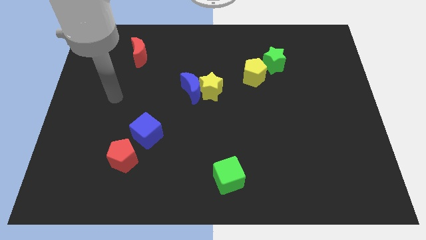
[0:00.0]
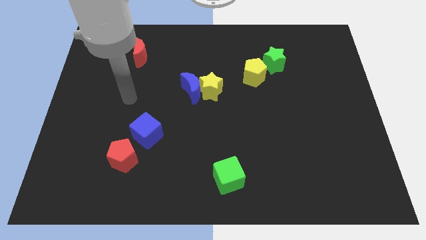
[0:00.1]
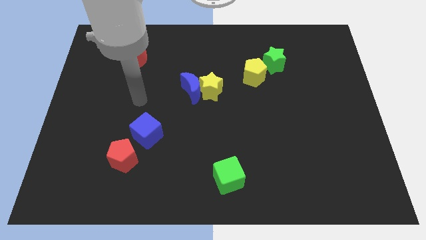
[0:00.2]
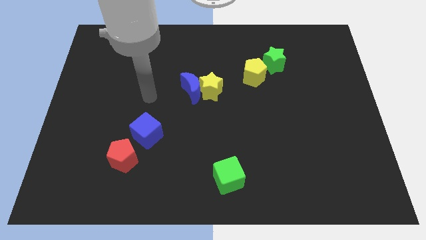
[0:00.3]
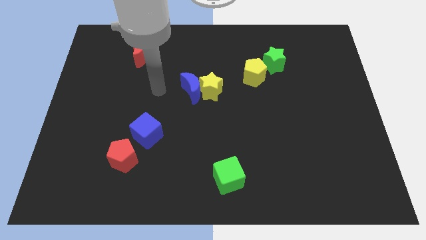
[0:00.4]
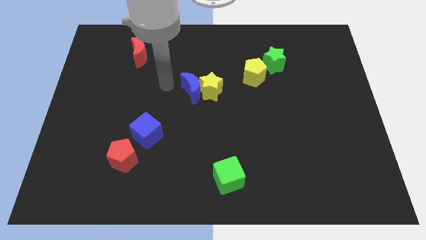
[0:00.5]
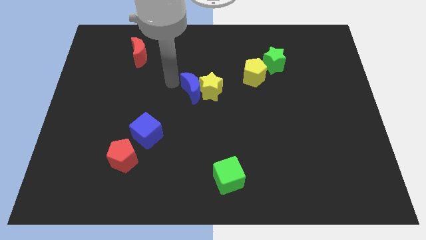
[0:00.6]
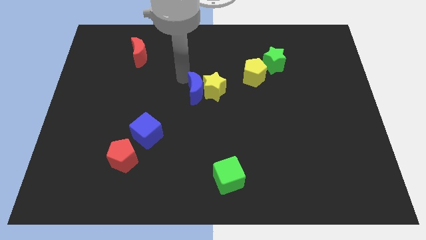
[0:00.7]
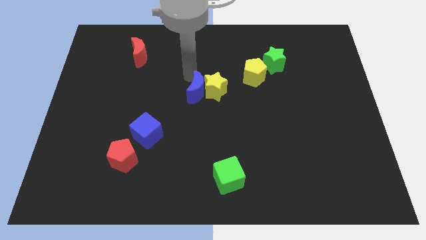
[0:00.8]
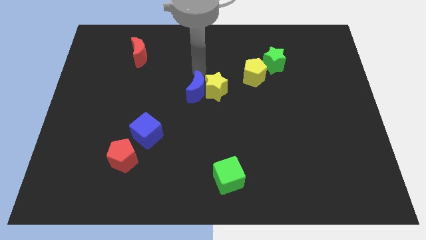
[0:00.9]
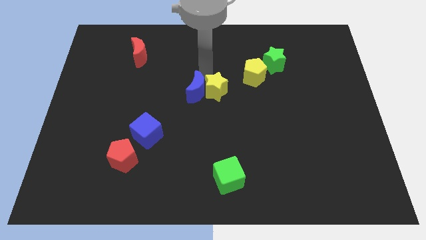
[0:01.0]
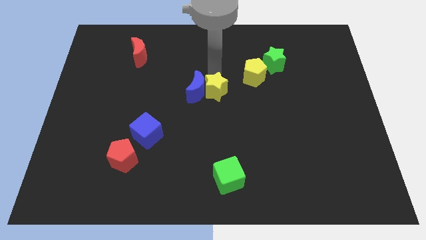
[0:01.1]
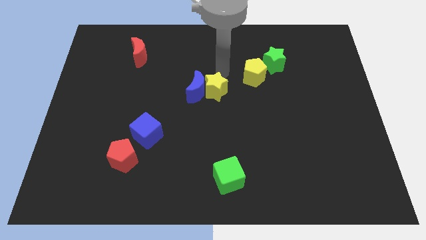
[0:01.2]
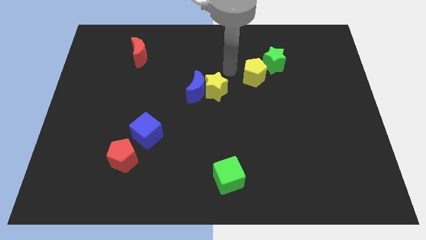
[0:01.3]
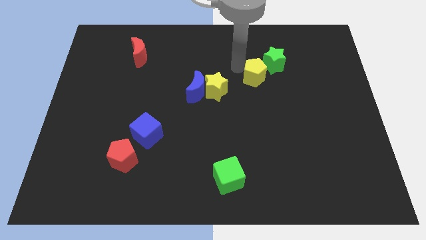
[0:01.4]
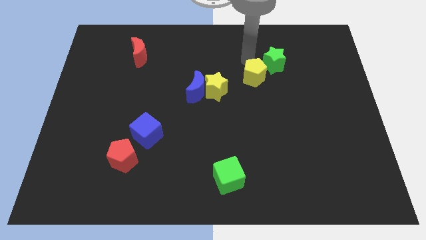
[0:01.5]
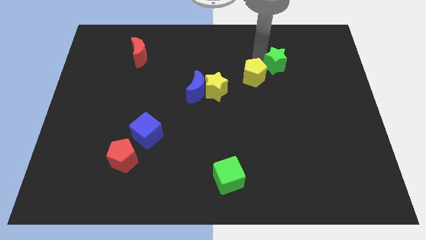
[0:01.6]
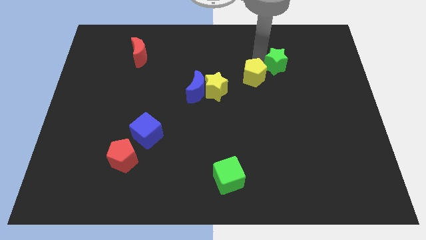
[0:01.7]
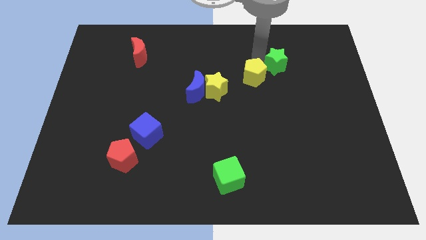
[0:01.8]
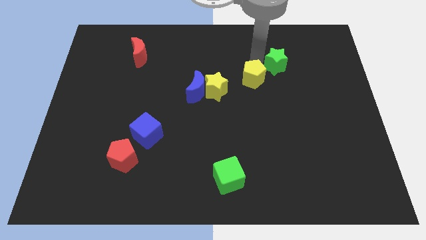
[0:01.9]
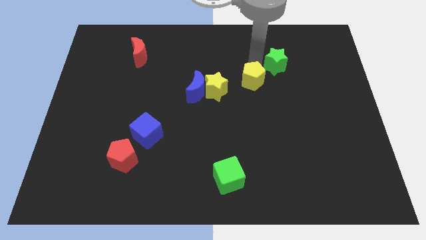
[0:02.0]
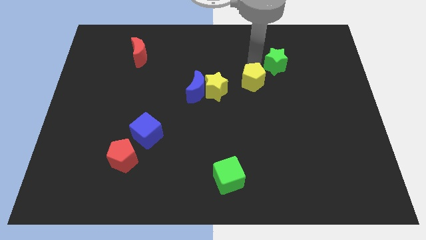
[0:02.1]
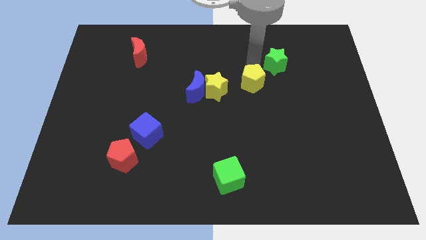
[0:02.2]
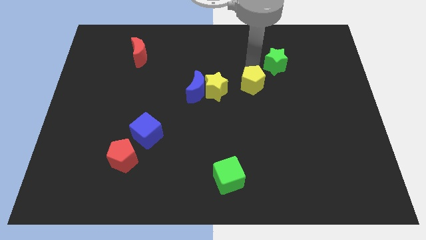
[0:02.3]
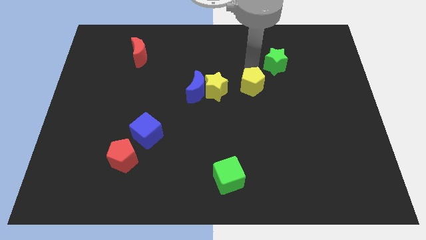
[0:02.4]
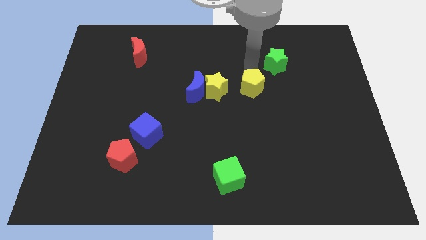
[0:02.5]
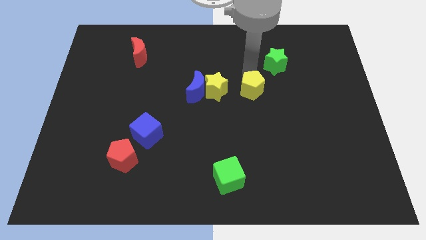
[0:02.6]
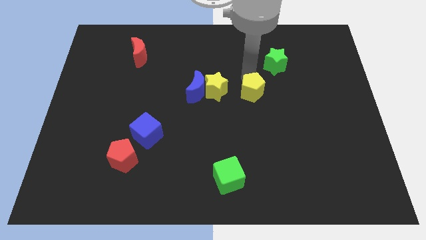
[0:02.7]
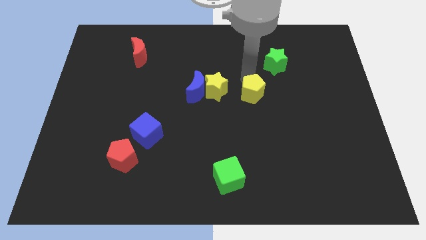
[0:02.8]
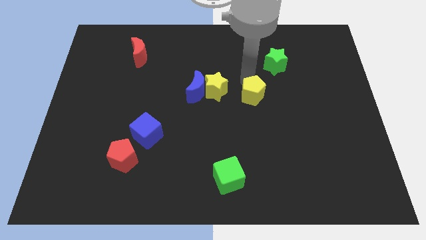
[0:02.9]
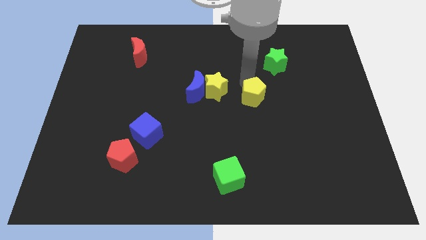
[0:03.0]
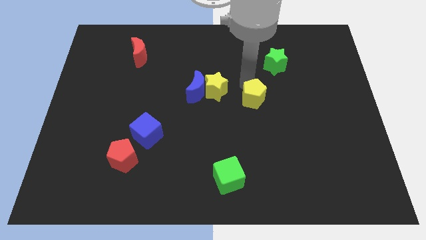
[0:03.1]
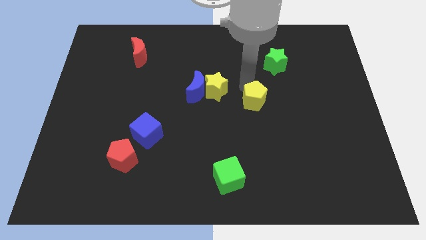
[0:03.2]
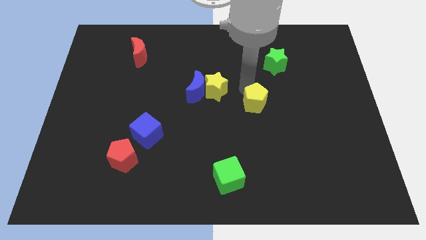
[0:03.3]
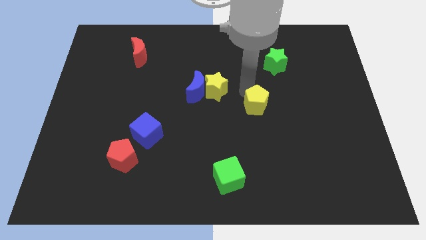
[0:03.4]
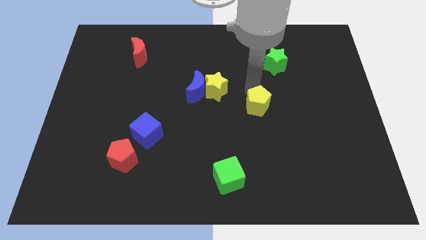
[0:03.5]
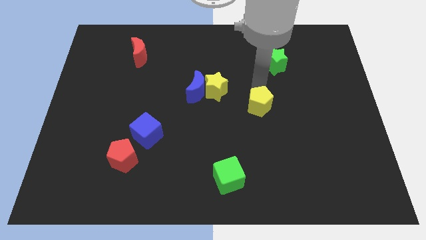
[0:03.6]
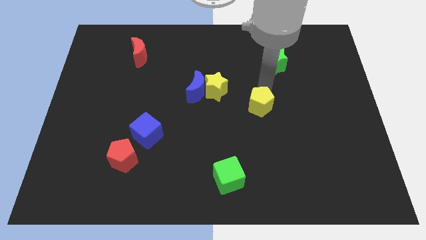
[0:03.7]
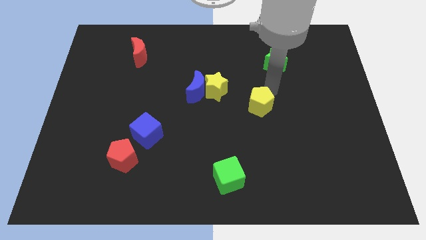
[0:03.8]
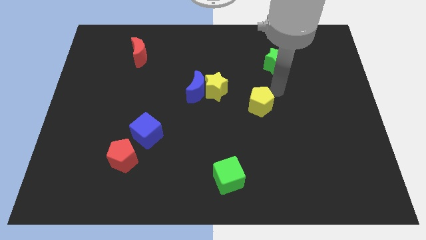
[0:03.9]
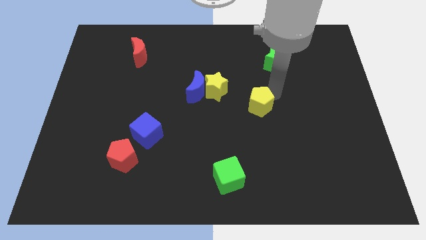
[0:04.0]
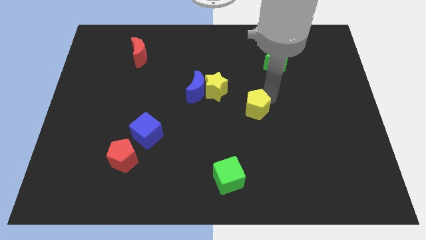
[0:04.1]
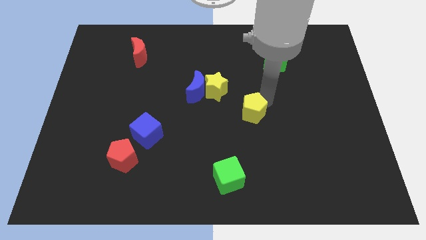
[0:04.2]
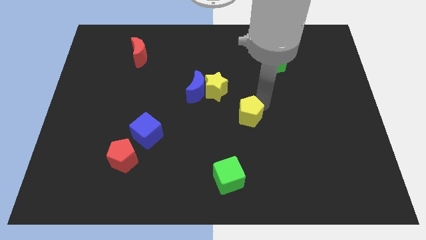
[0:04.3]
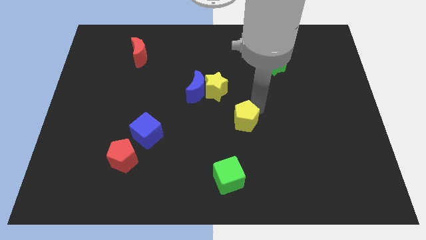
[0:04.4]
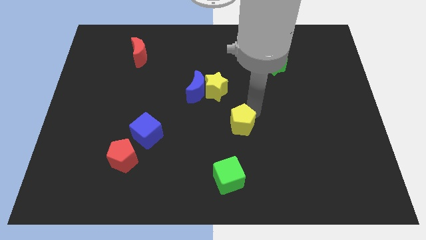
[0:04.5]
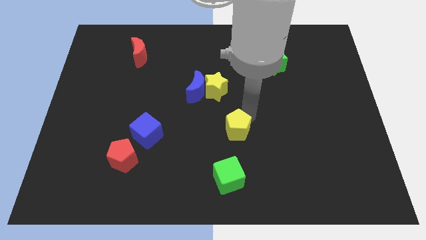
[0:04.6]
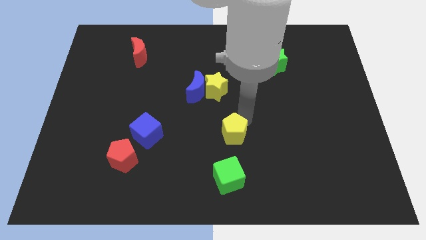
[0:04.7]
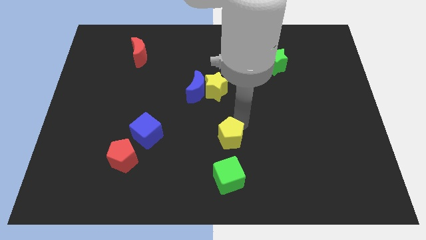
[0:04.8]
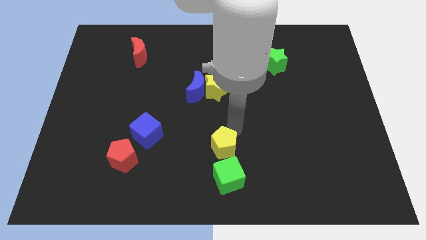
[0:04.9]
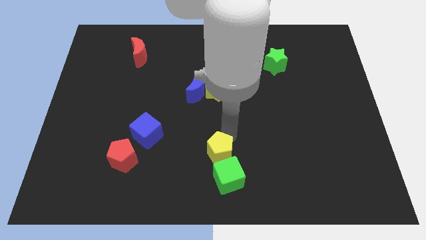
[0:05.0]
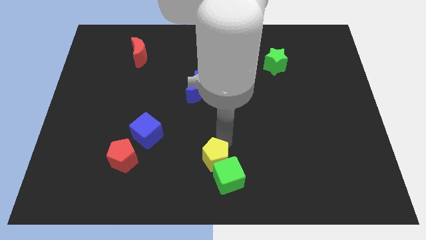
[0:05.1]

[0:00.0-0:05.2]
move the yellow pentagon towards the green cube

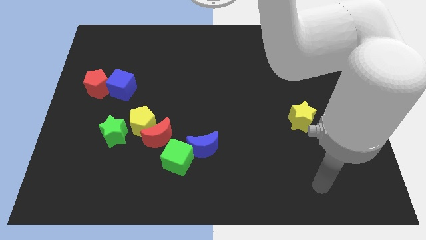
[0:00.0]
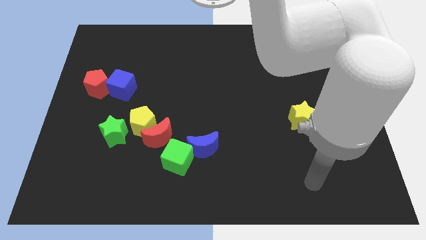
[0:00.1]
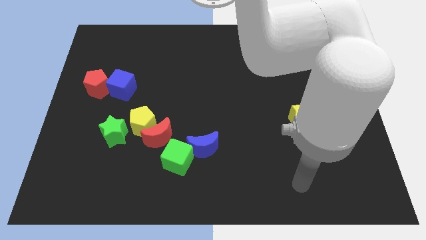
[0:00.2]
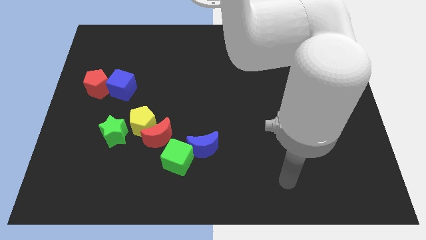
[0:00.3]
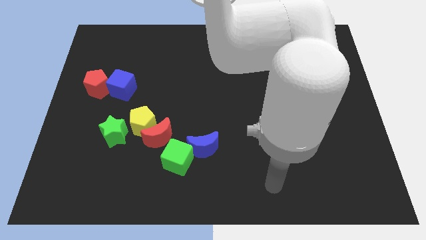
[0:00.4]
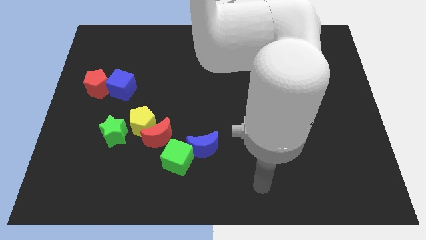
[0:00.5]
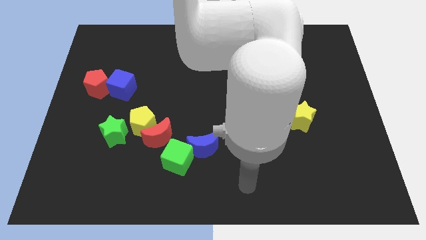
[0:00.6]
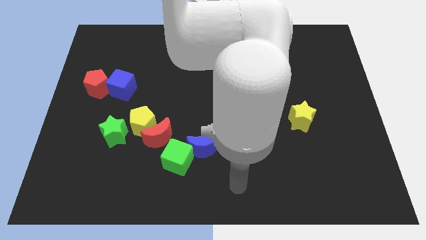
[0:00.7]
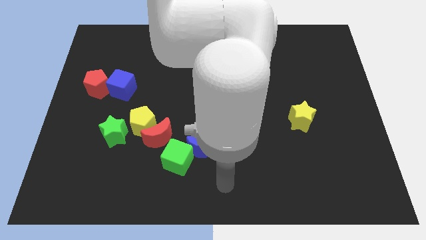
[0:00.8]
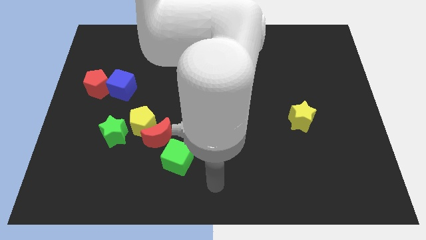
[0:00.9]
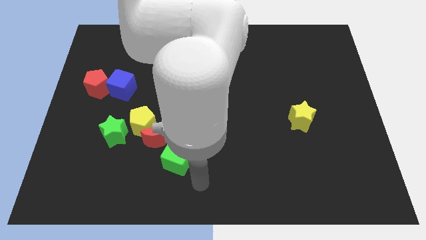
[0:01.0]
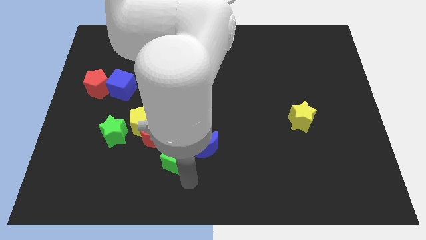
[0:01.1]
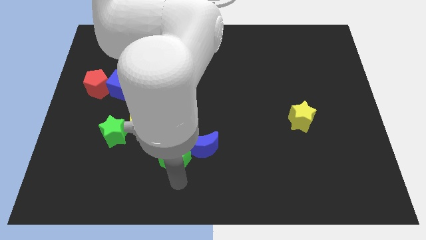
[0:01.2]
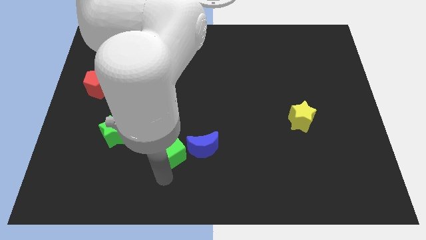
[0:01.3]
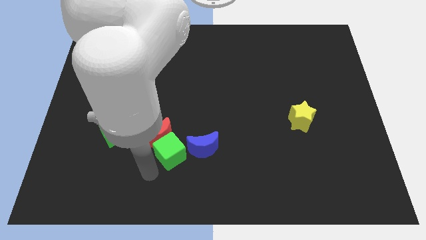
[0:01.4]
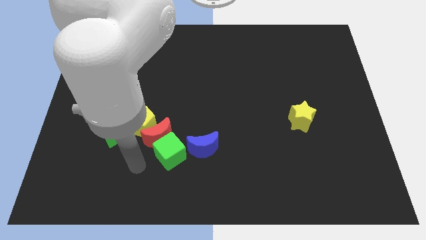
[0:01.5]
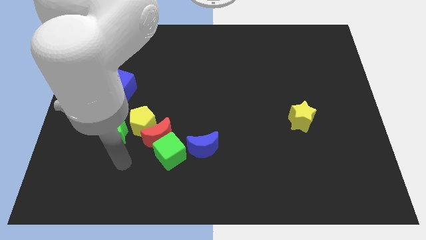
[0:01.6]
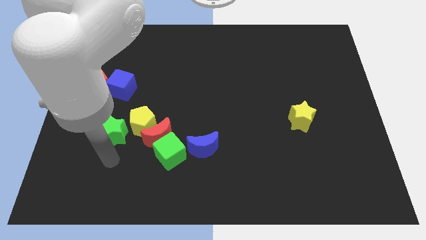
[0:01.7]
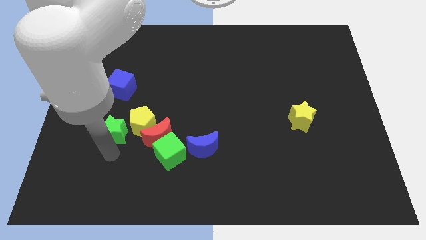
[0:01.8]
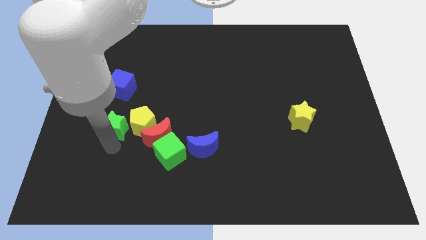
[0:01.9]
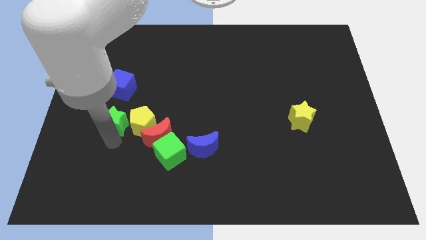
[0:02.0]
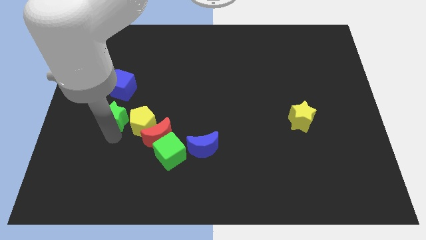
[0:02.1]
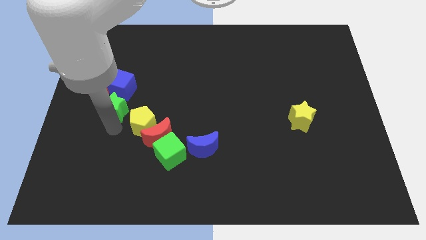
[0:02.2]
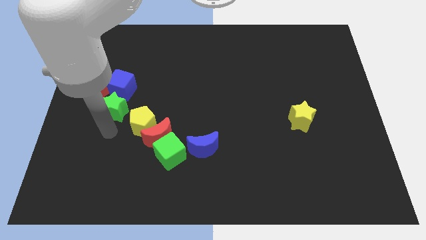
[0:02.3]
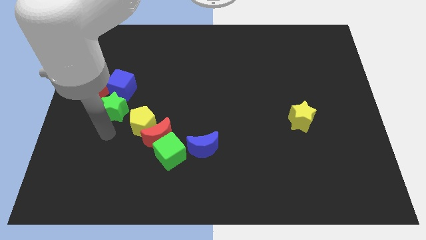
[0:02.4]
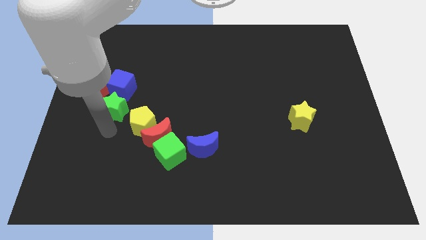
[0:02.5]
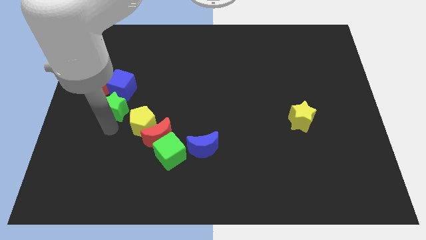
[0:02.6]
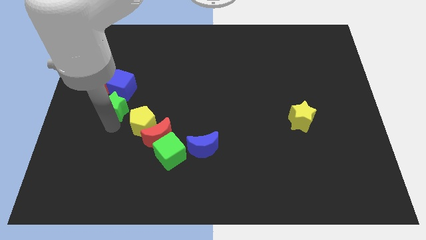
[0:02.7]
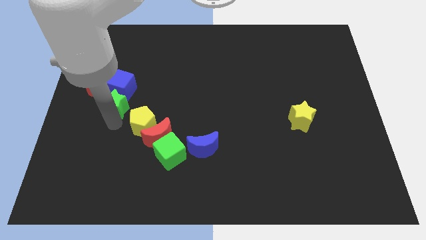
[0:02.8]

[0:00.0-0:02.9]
move the green star next to the blue cube
